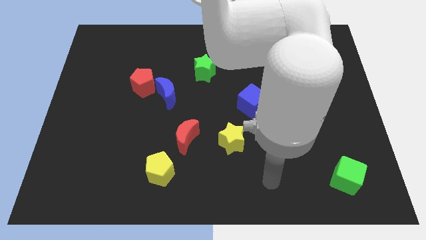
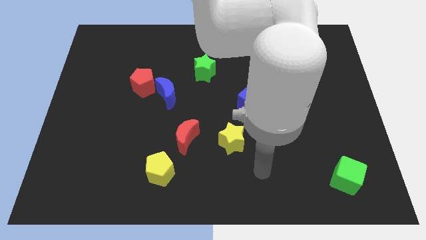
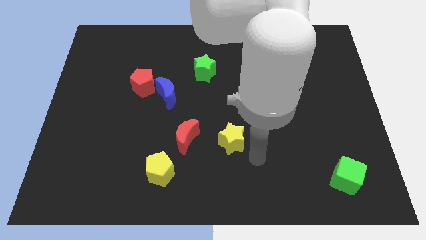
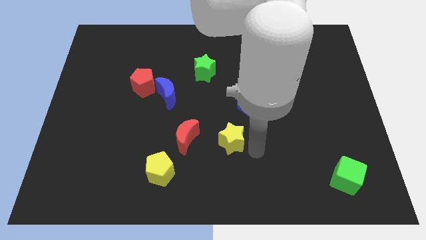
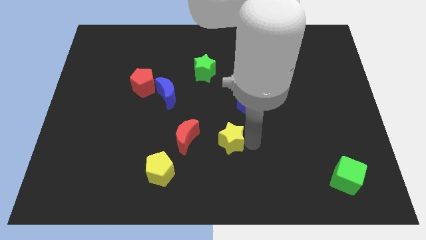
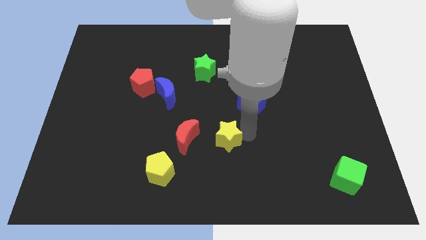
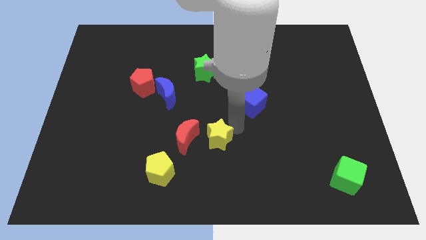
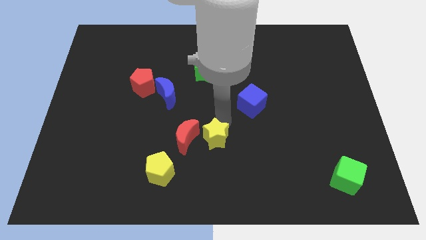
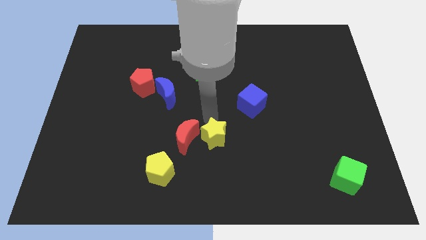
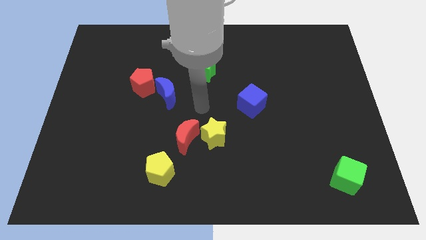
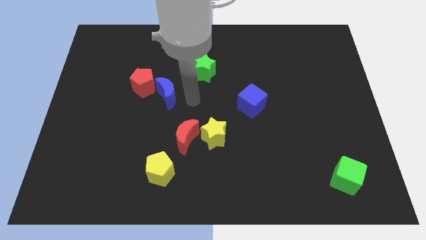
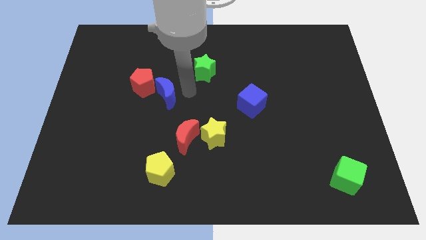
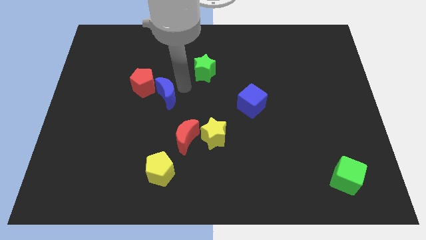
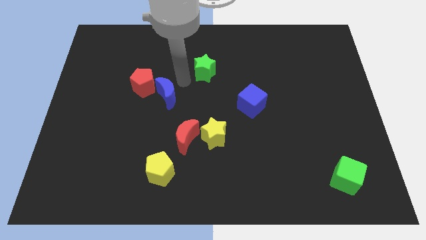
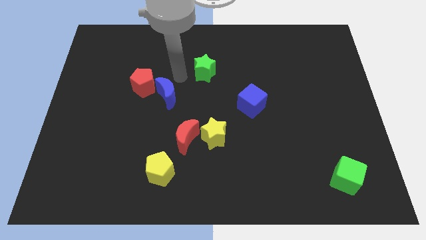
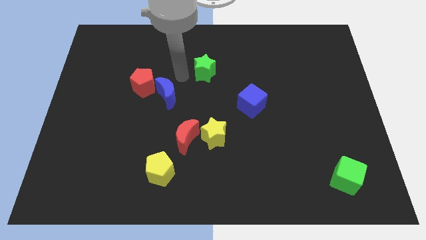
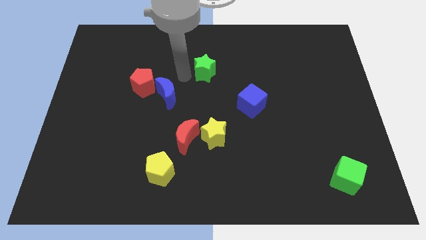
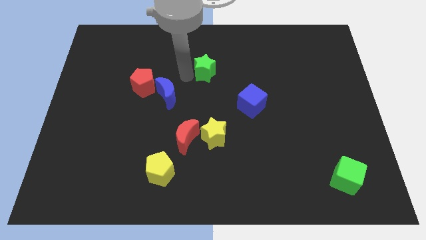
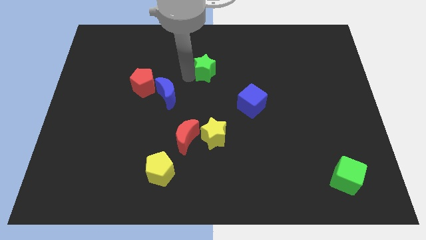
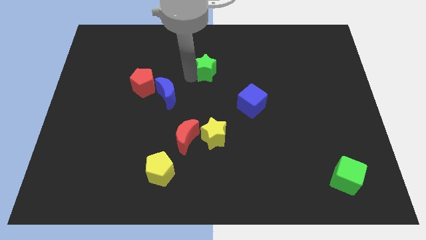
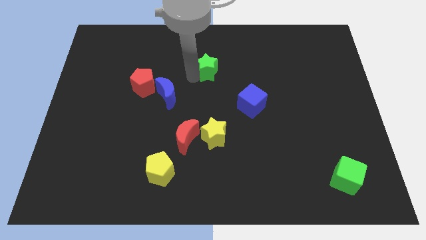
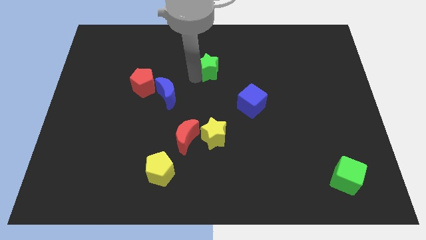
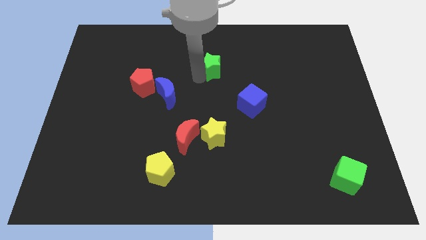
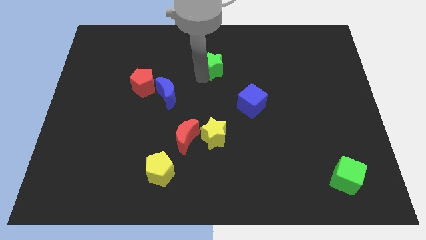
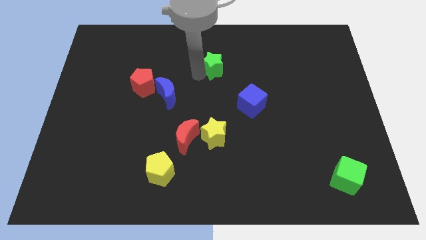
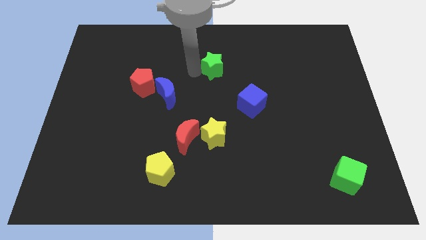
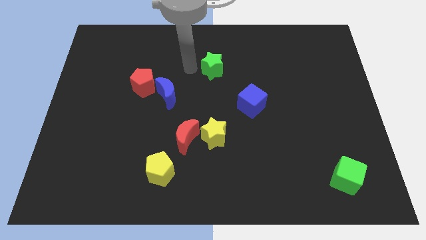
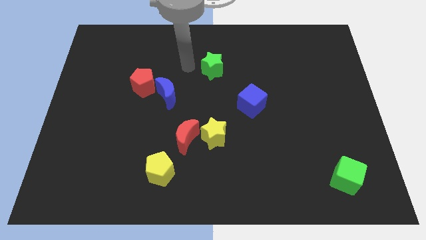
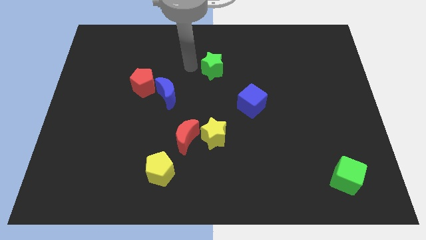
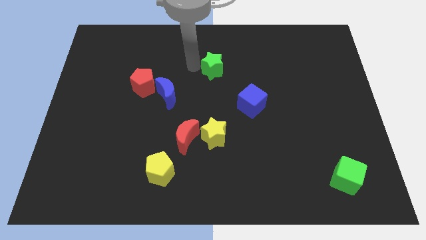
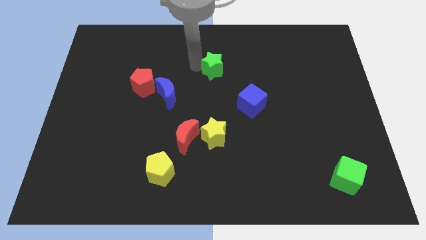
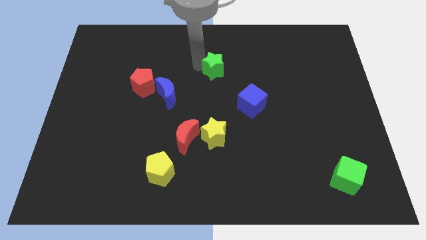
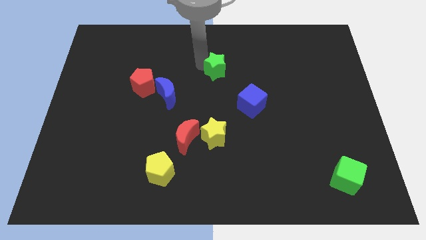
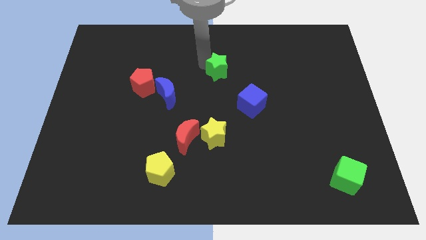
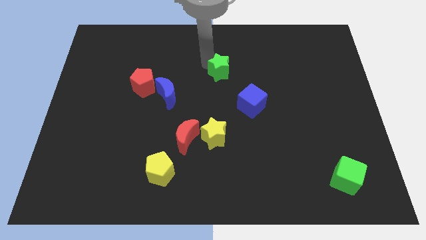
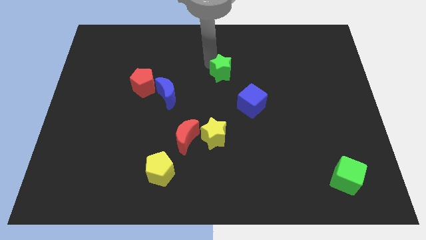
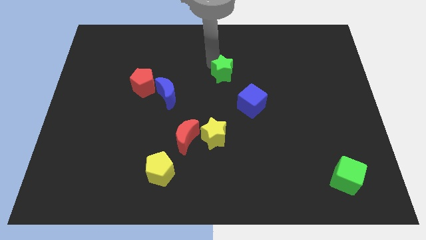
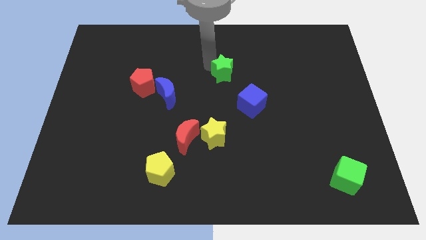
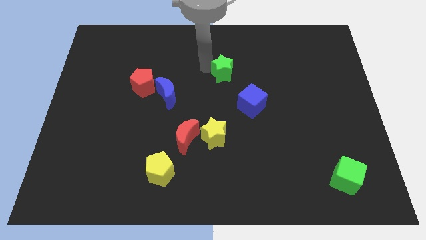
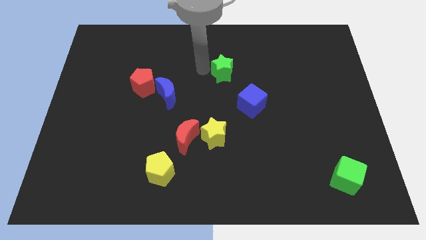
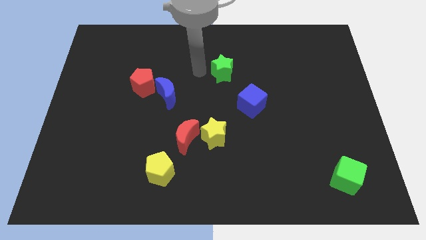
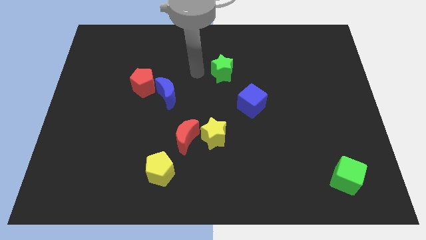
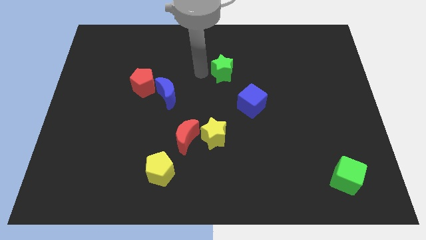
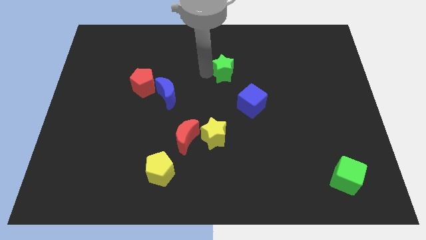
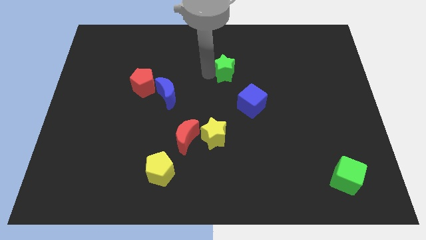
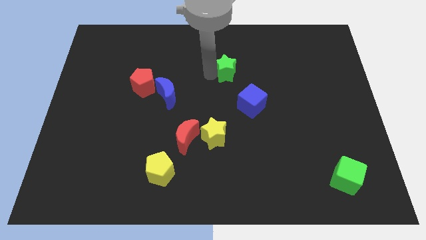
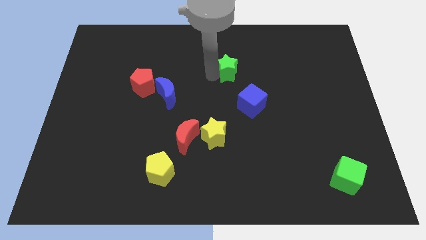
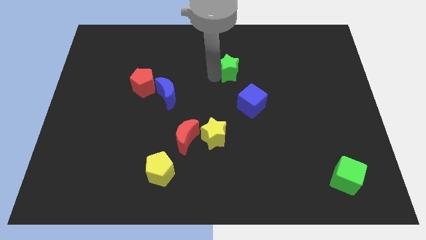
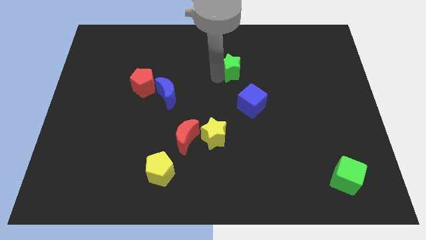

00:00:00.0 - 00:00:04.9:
slightly slide the green star to the right

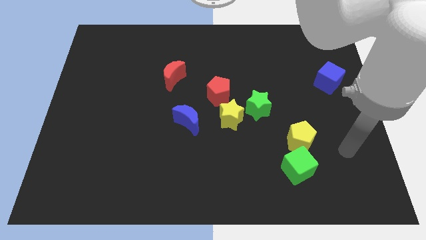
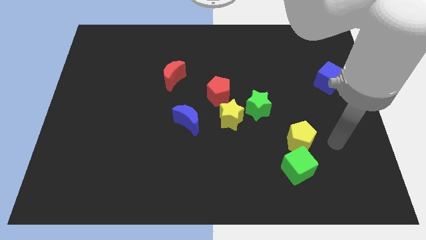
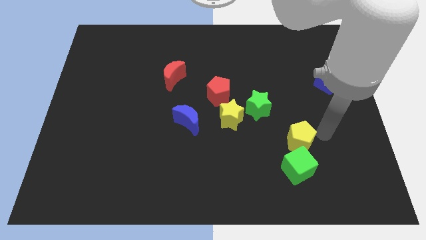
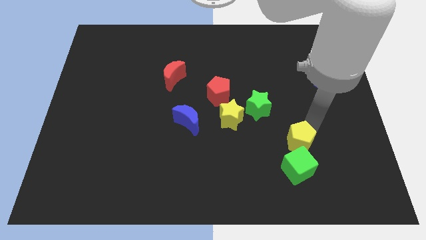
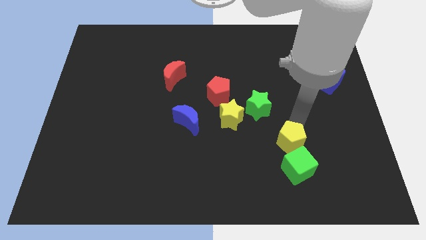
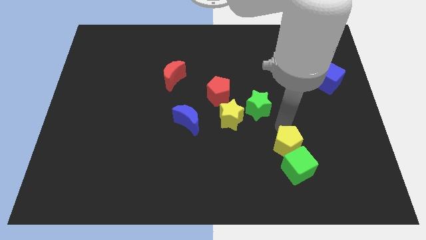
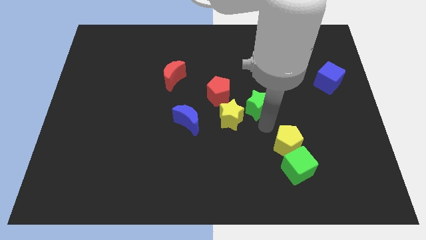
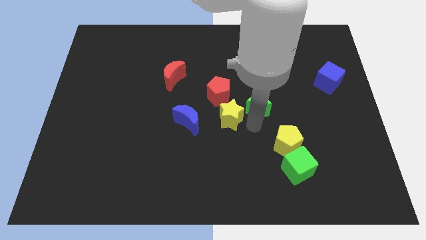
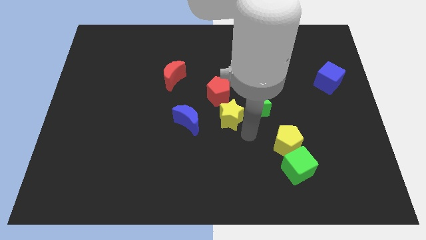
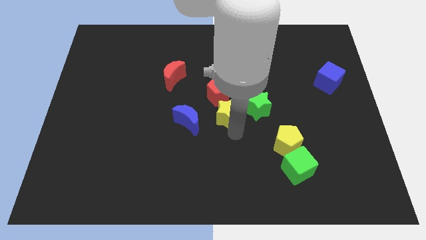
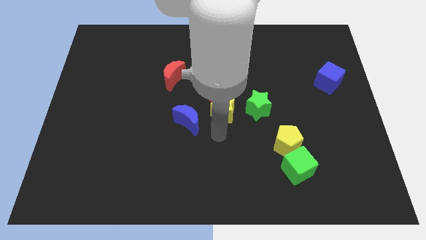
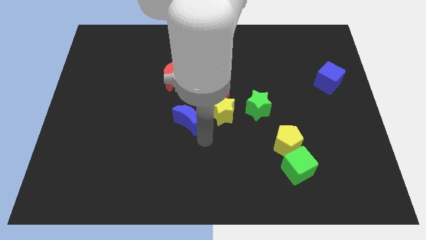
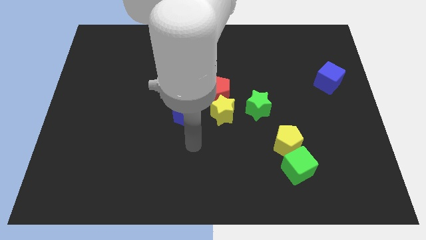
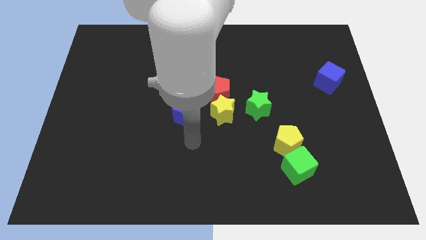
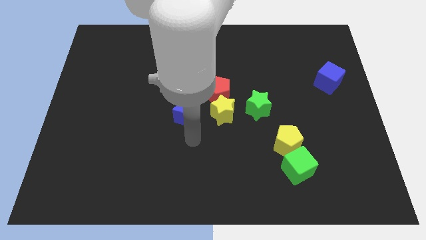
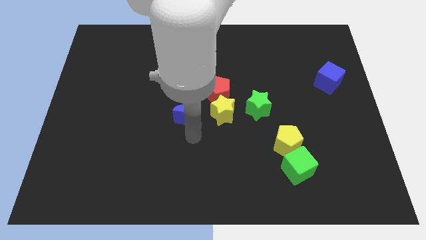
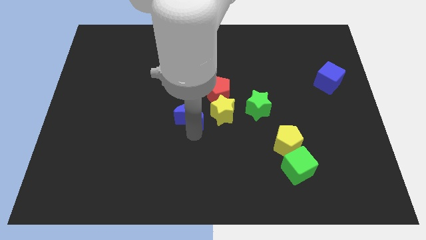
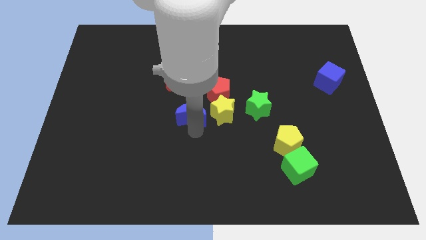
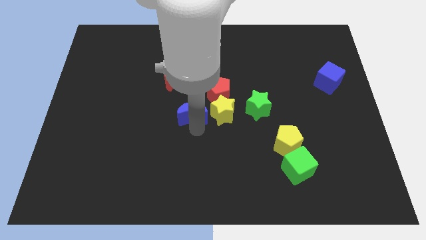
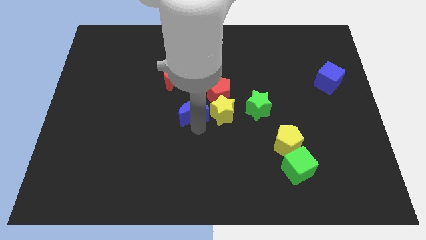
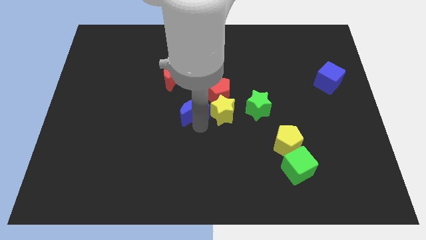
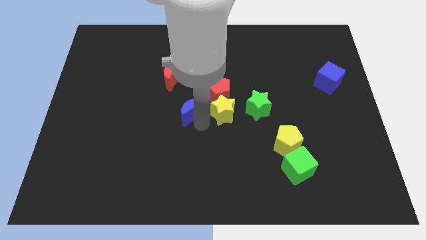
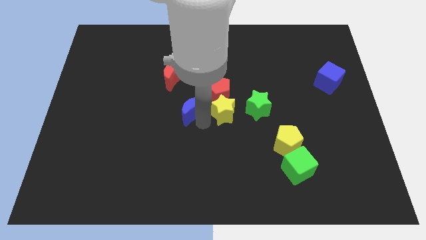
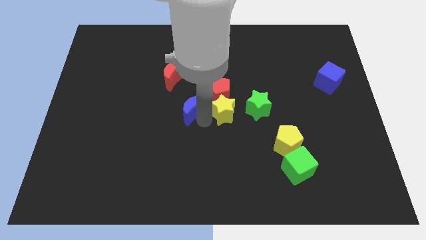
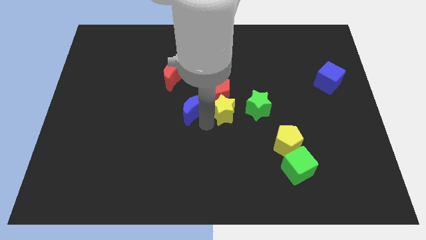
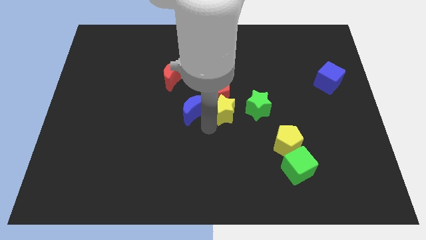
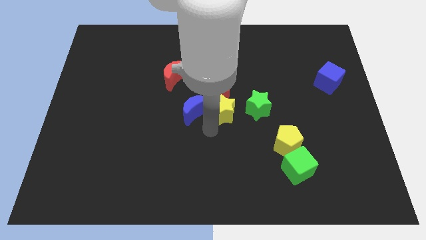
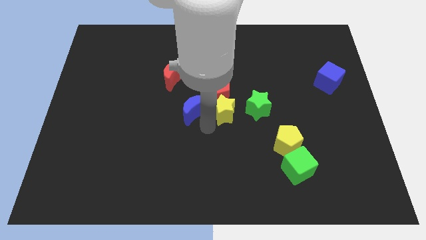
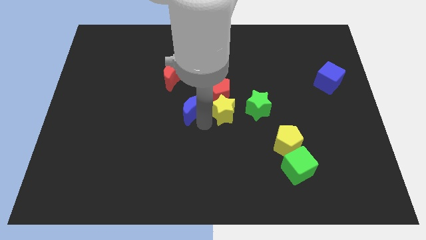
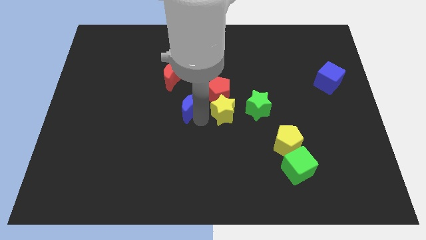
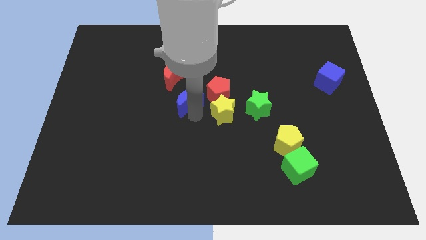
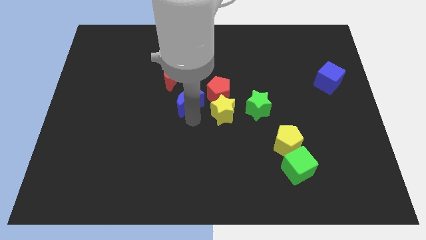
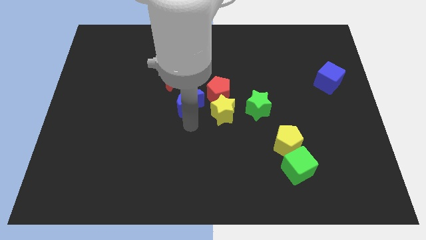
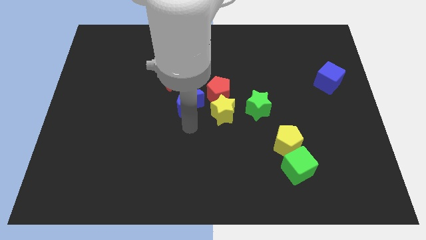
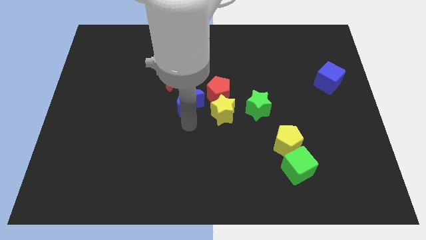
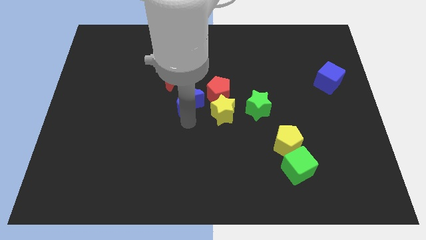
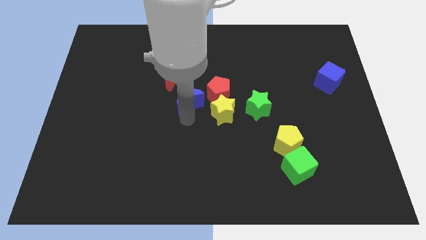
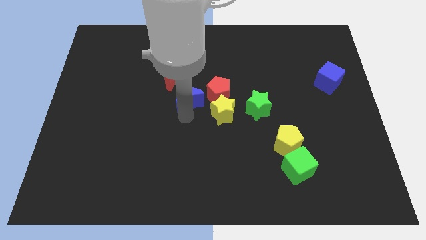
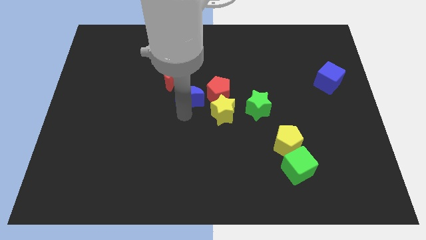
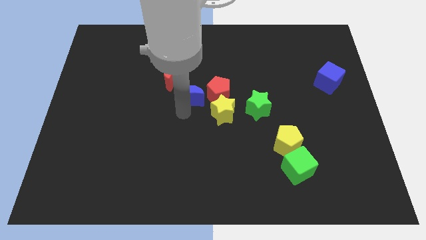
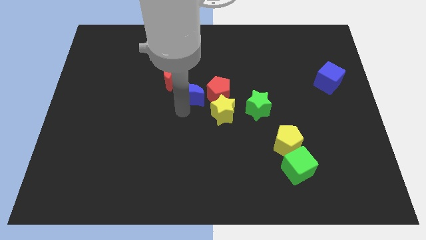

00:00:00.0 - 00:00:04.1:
slightly move the blue moon upwards
